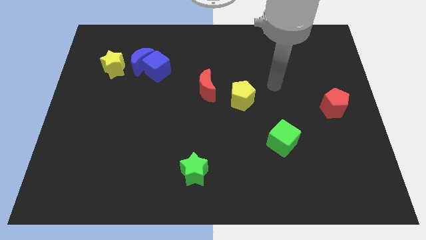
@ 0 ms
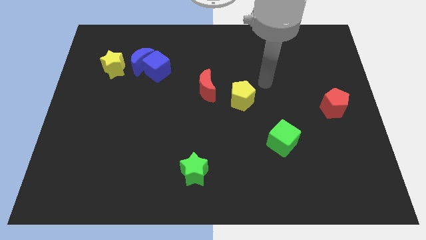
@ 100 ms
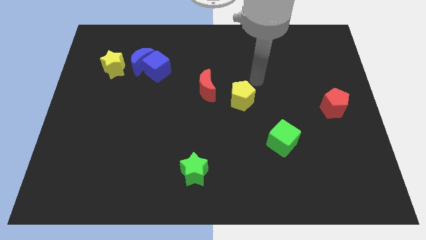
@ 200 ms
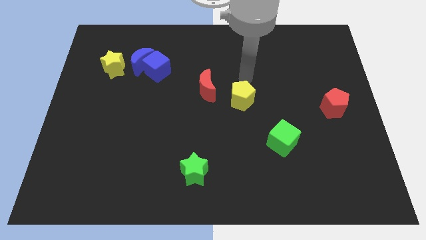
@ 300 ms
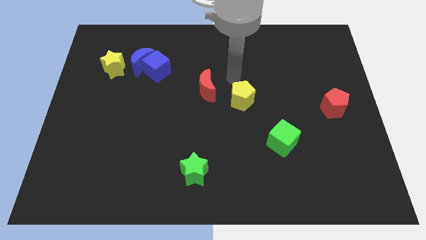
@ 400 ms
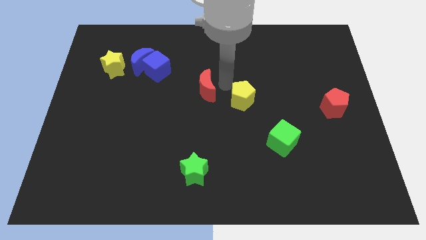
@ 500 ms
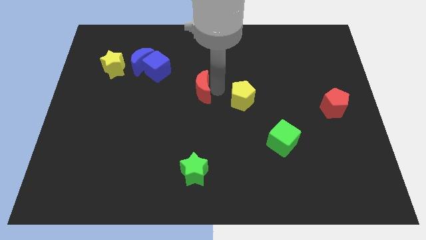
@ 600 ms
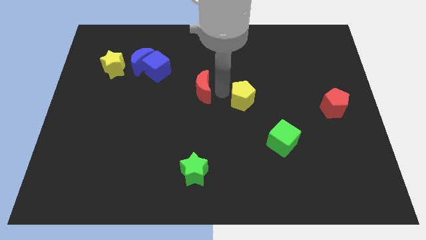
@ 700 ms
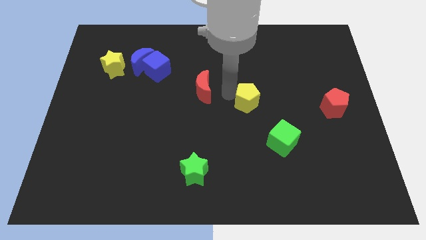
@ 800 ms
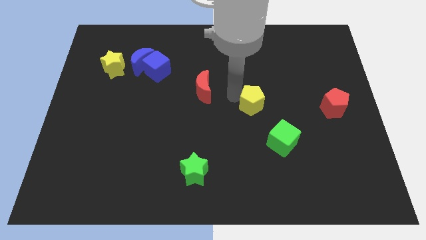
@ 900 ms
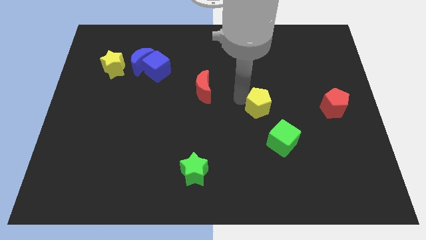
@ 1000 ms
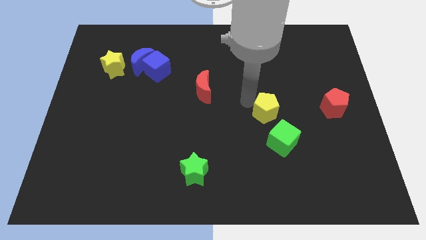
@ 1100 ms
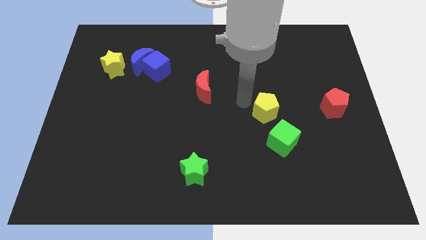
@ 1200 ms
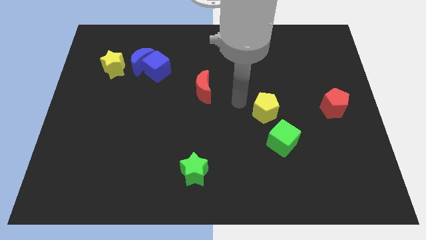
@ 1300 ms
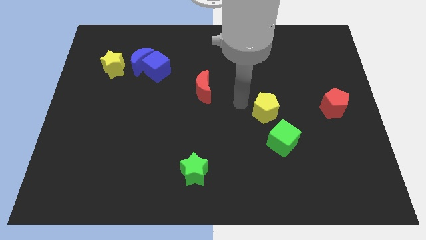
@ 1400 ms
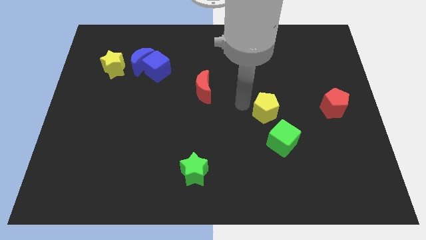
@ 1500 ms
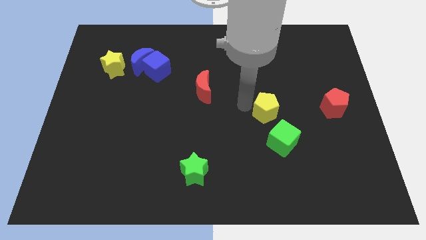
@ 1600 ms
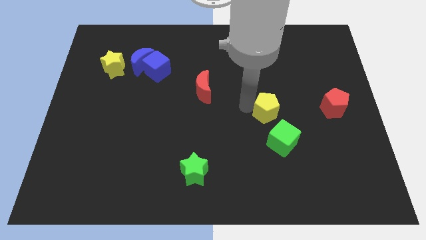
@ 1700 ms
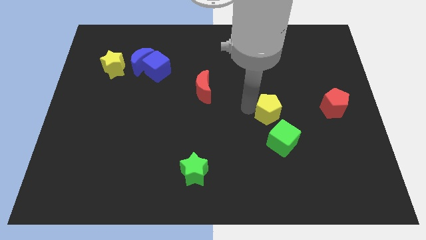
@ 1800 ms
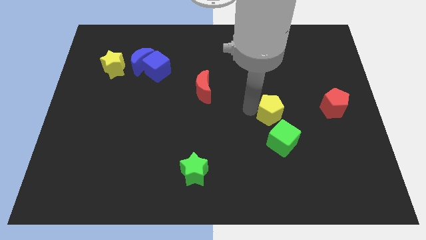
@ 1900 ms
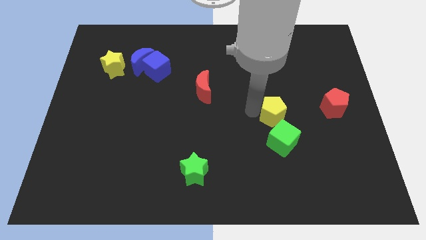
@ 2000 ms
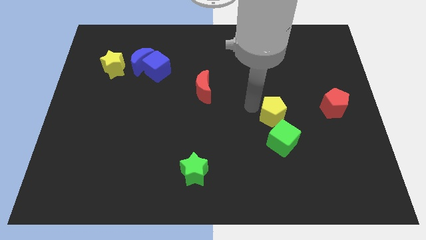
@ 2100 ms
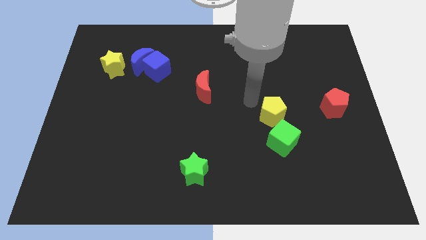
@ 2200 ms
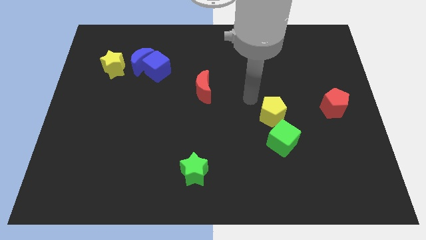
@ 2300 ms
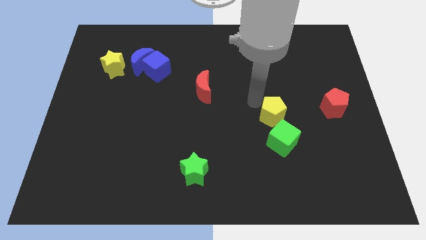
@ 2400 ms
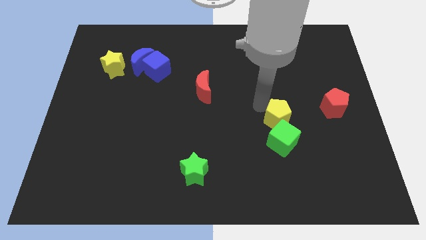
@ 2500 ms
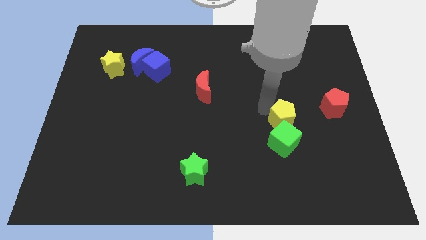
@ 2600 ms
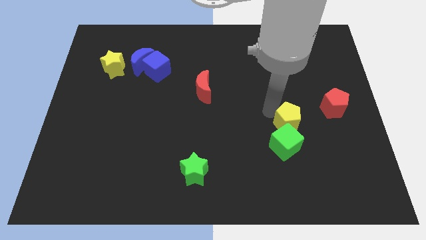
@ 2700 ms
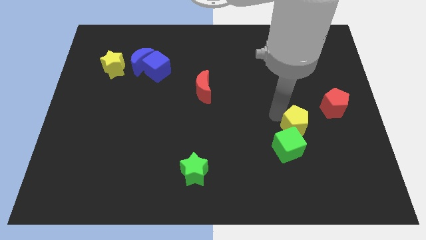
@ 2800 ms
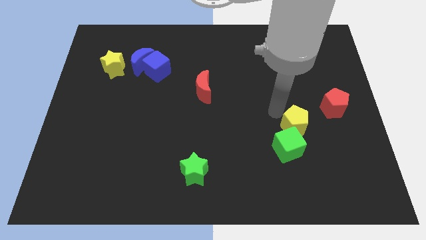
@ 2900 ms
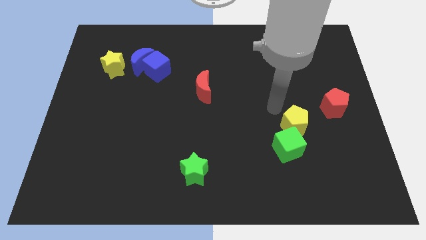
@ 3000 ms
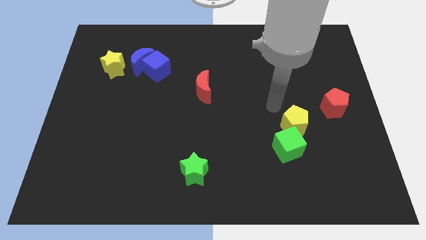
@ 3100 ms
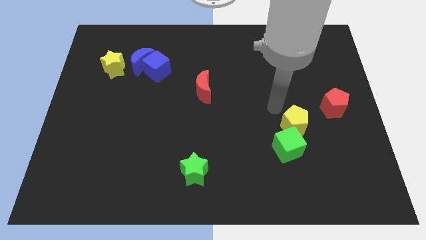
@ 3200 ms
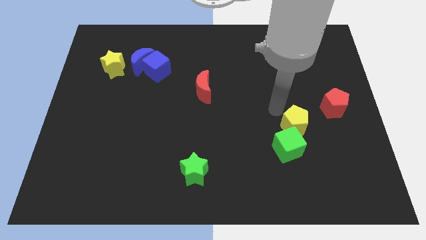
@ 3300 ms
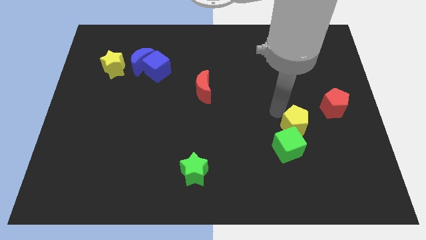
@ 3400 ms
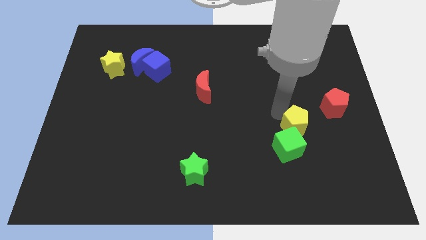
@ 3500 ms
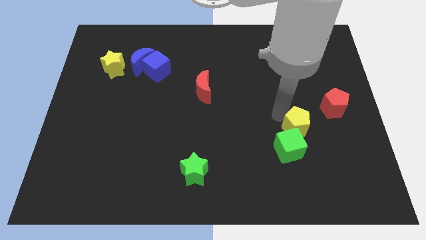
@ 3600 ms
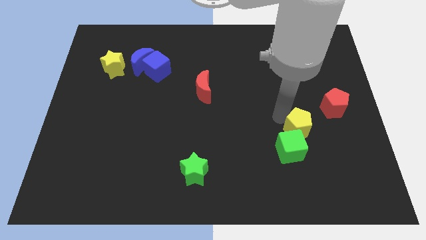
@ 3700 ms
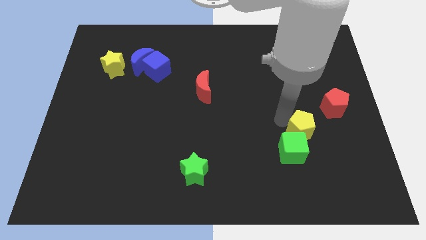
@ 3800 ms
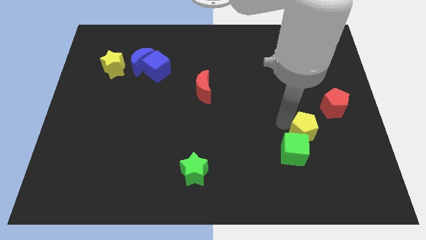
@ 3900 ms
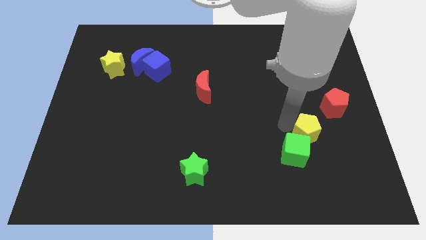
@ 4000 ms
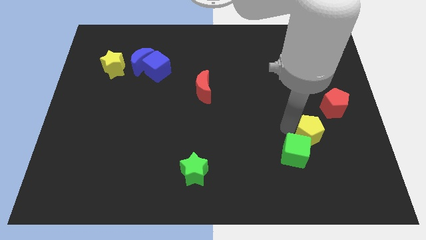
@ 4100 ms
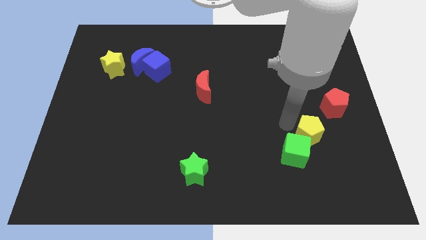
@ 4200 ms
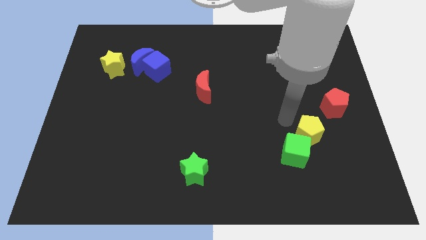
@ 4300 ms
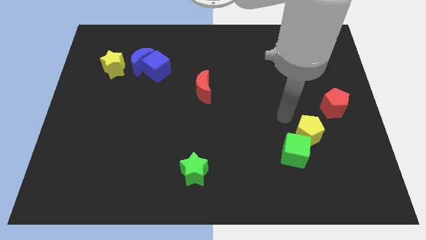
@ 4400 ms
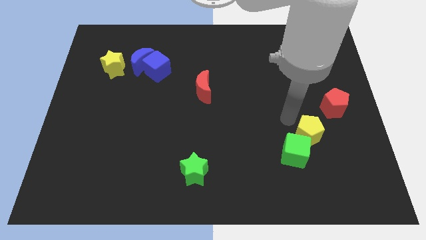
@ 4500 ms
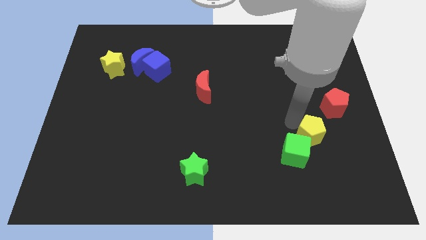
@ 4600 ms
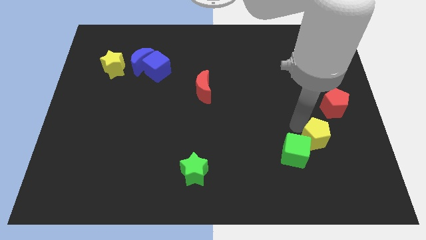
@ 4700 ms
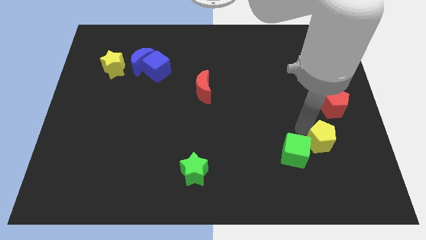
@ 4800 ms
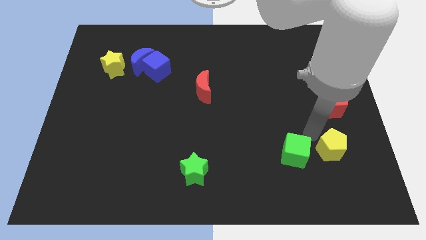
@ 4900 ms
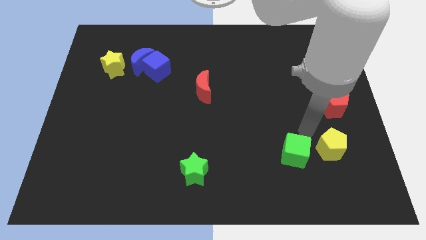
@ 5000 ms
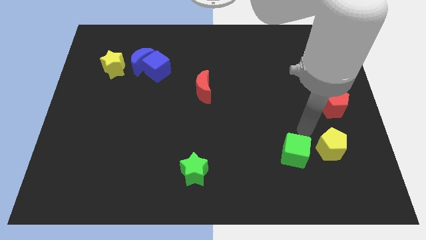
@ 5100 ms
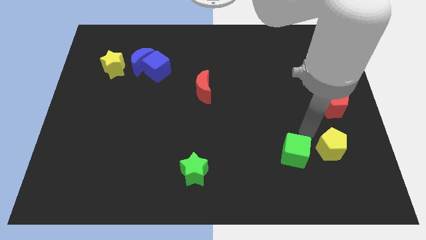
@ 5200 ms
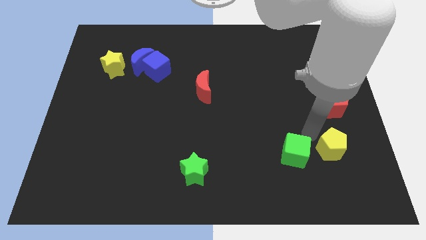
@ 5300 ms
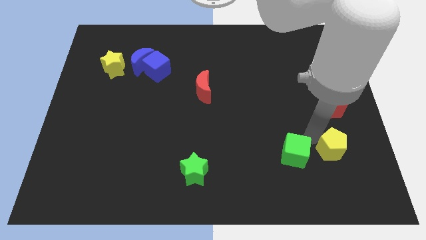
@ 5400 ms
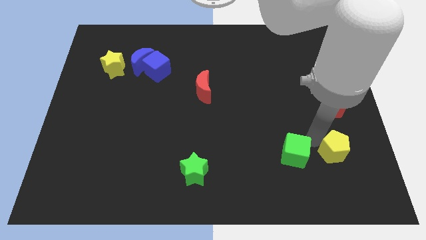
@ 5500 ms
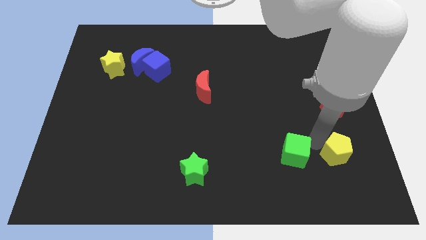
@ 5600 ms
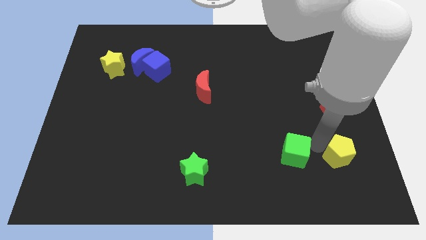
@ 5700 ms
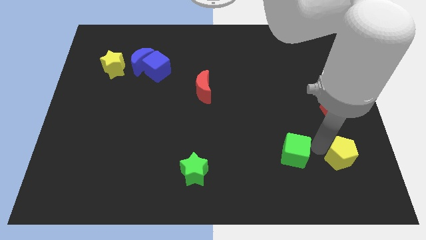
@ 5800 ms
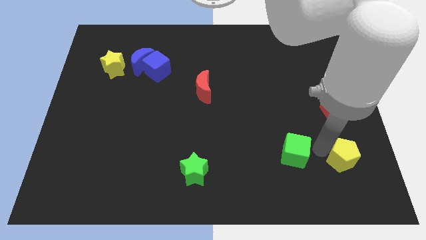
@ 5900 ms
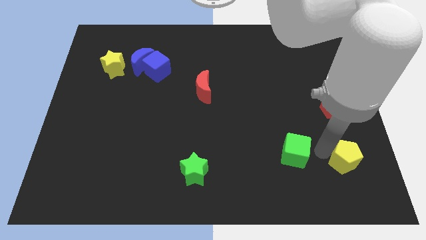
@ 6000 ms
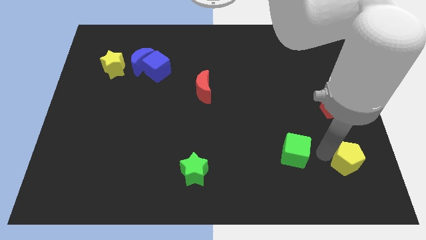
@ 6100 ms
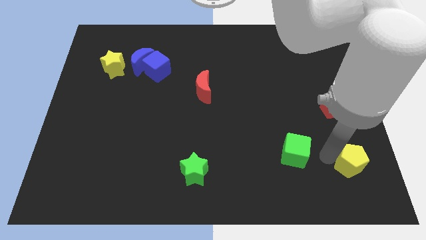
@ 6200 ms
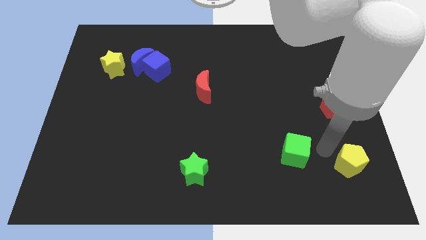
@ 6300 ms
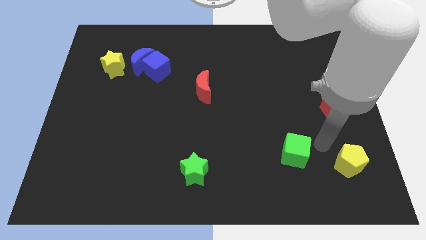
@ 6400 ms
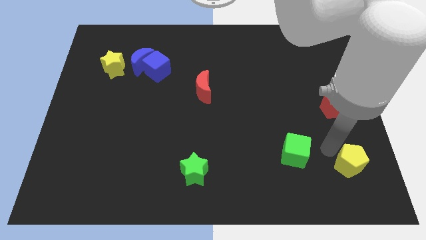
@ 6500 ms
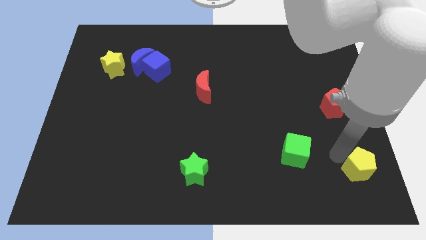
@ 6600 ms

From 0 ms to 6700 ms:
put the yellow pentagon to the bottom right corner
